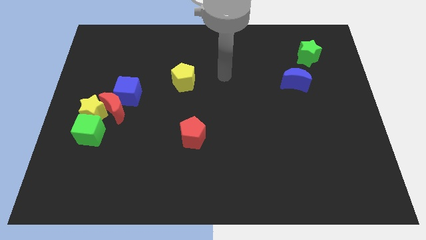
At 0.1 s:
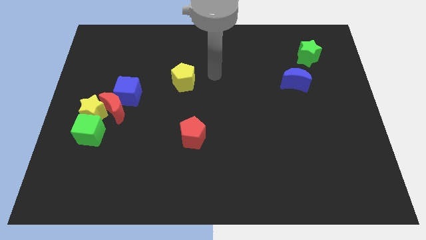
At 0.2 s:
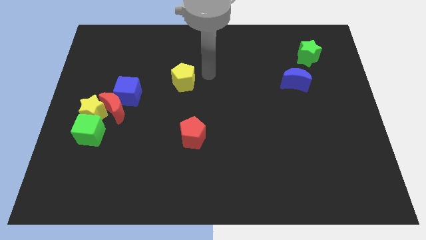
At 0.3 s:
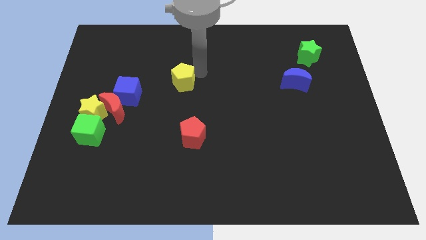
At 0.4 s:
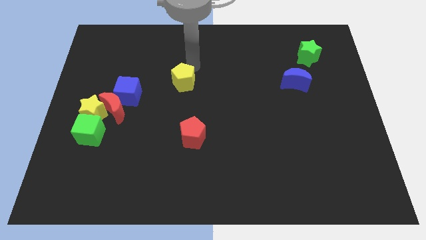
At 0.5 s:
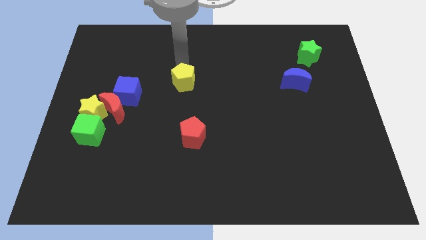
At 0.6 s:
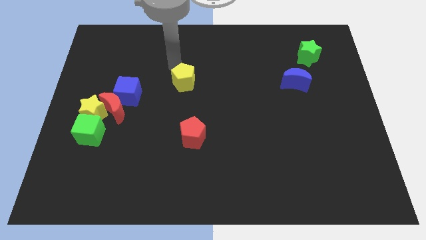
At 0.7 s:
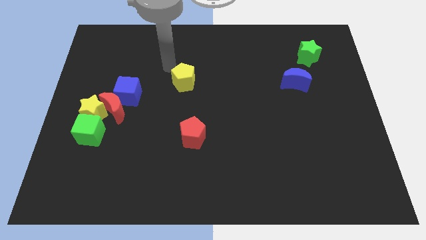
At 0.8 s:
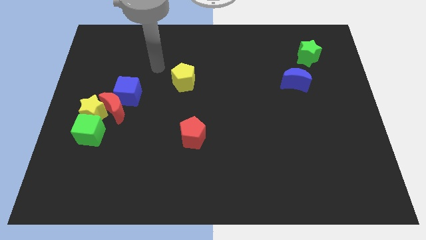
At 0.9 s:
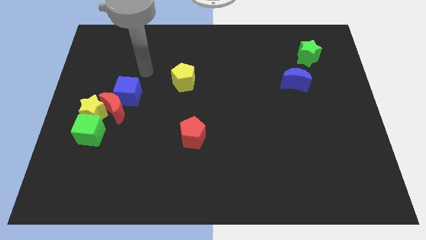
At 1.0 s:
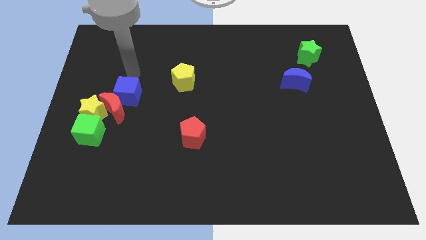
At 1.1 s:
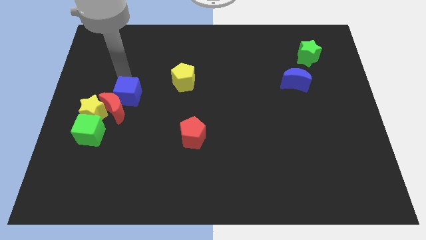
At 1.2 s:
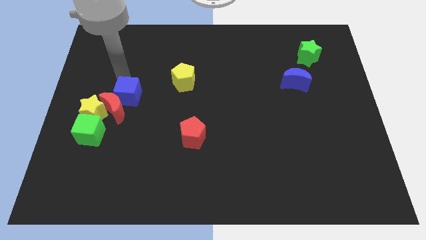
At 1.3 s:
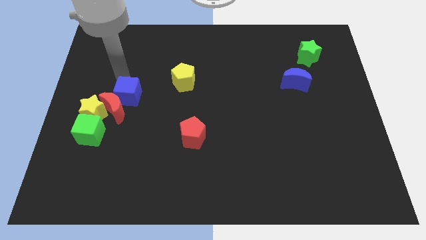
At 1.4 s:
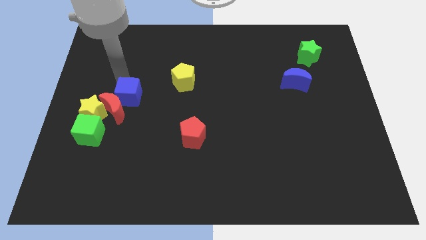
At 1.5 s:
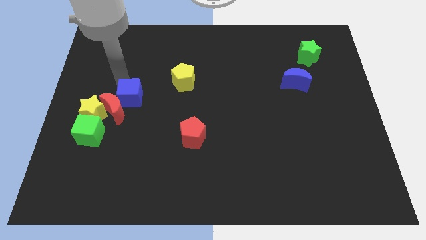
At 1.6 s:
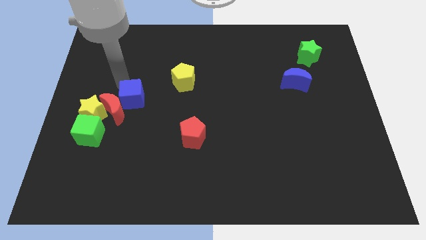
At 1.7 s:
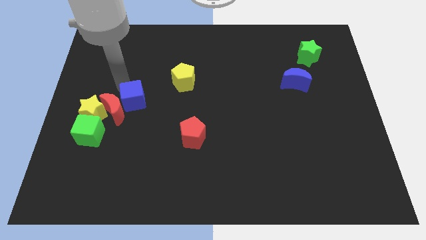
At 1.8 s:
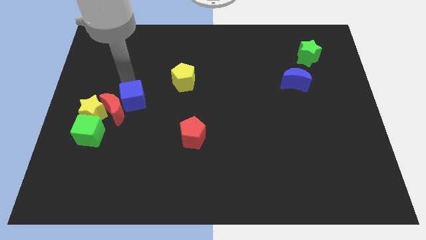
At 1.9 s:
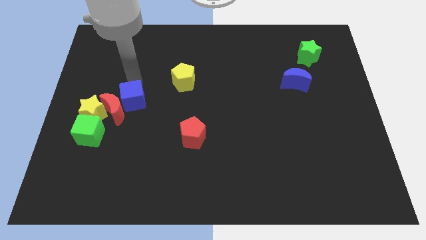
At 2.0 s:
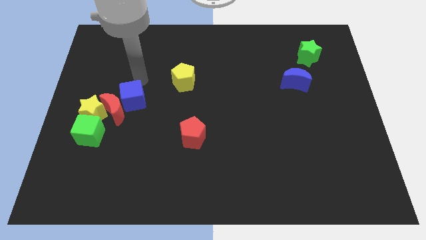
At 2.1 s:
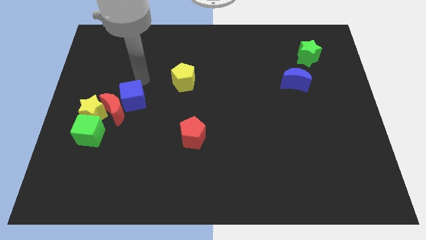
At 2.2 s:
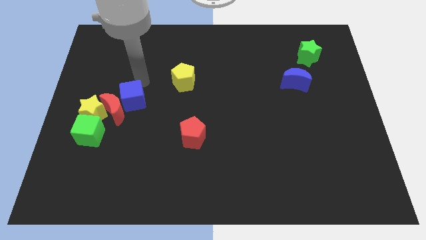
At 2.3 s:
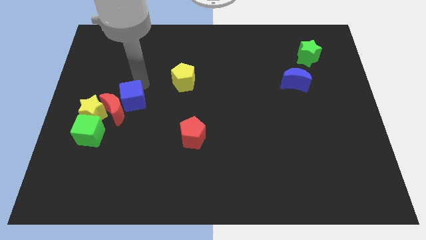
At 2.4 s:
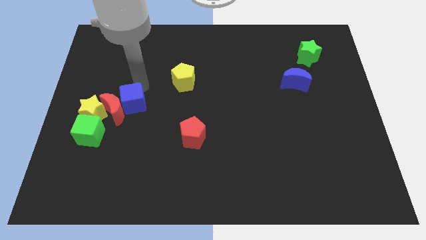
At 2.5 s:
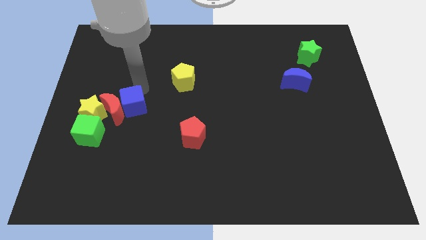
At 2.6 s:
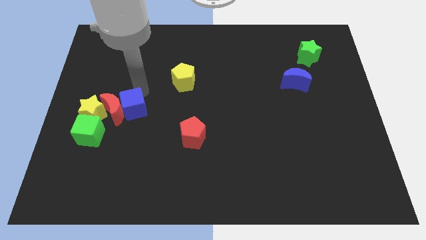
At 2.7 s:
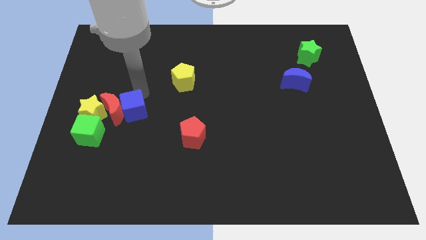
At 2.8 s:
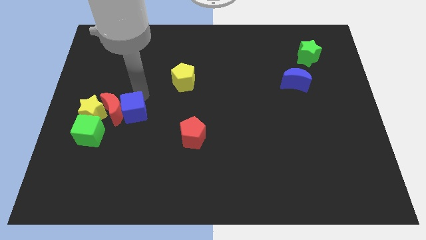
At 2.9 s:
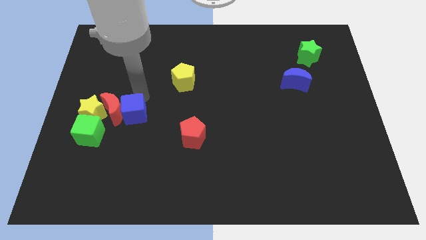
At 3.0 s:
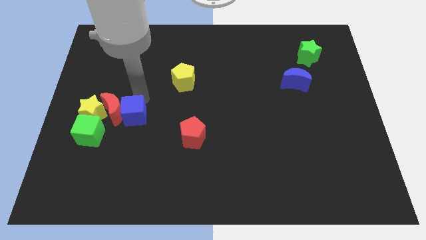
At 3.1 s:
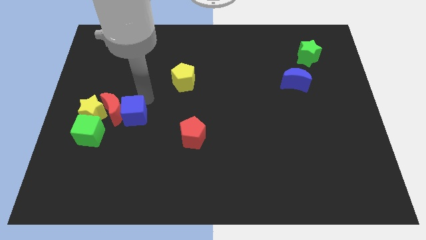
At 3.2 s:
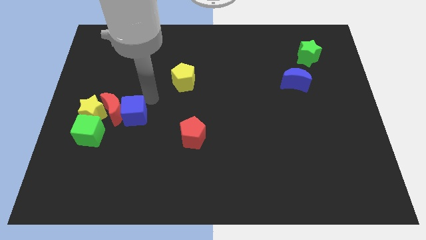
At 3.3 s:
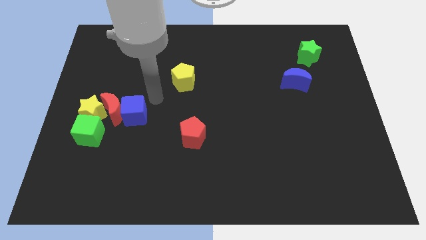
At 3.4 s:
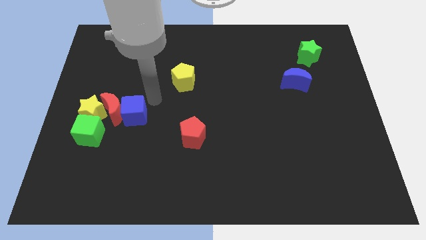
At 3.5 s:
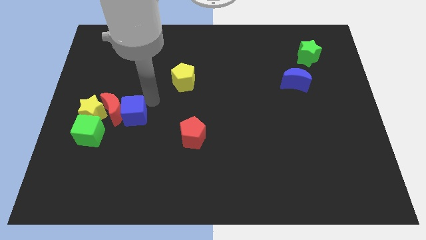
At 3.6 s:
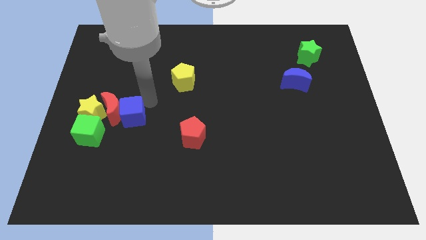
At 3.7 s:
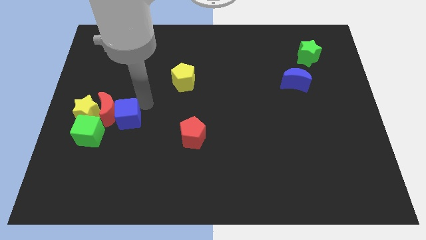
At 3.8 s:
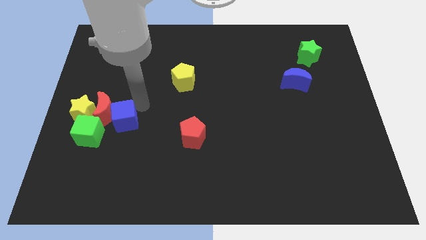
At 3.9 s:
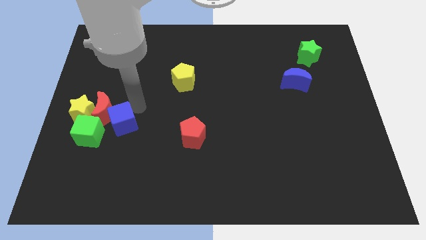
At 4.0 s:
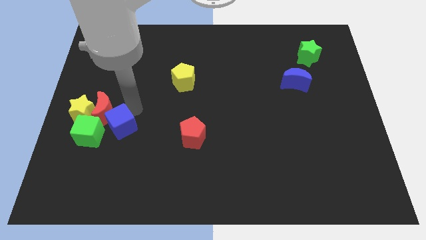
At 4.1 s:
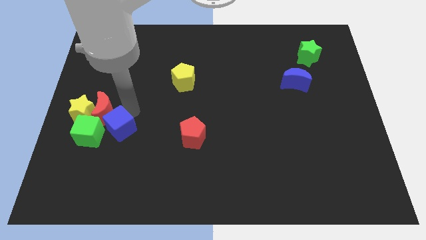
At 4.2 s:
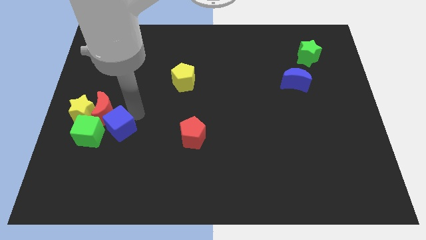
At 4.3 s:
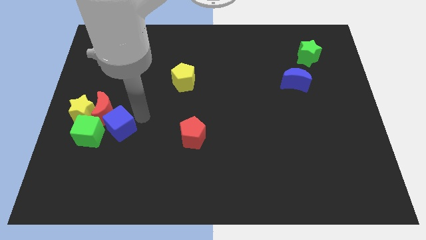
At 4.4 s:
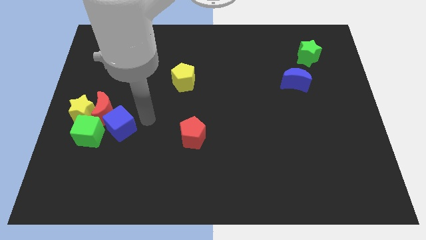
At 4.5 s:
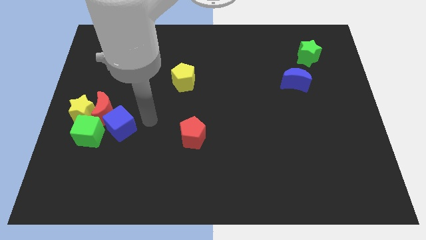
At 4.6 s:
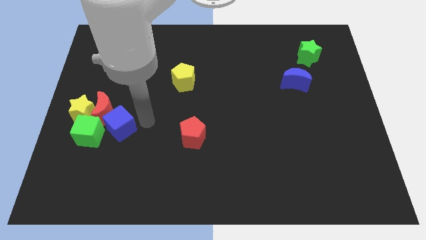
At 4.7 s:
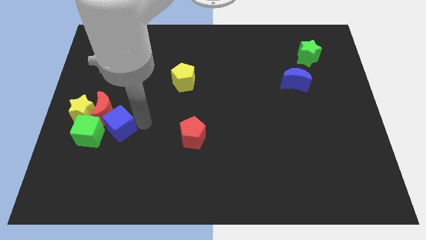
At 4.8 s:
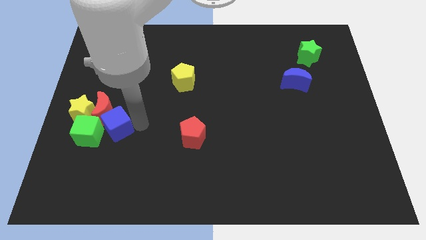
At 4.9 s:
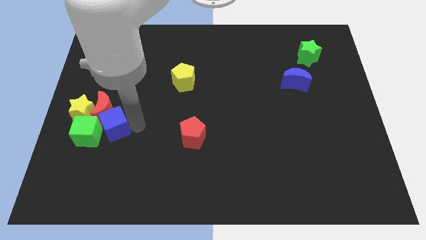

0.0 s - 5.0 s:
slide the blue cube next to the green cube

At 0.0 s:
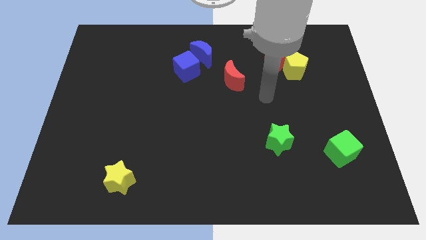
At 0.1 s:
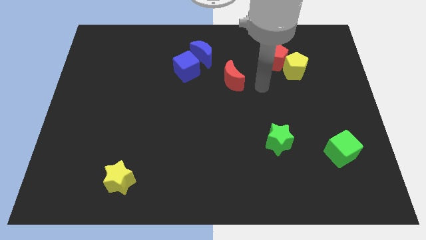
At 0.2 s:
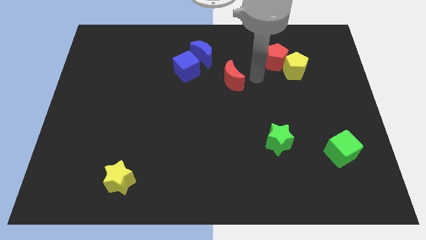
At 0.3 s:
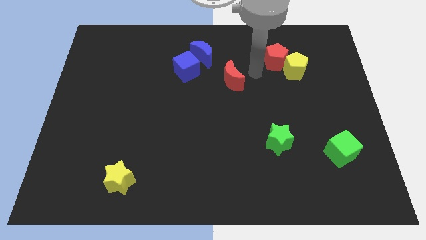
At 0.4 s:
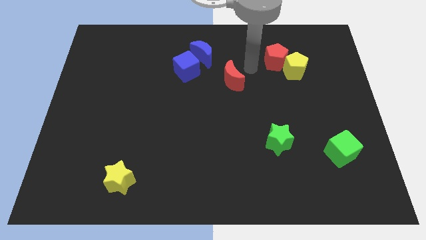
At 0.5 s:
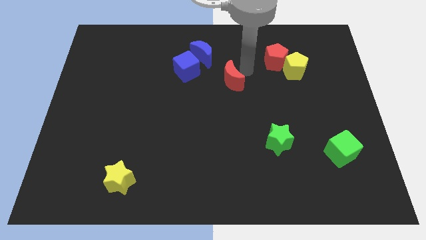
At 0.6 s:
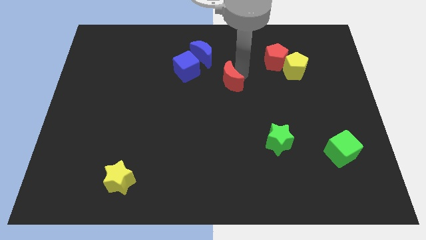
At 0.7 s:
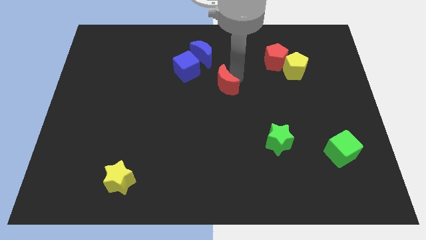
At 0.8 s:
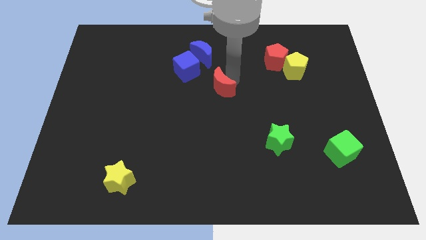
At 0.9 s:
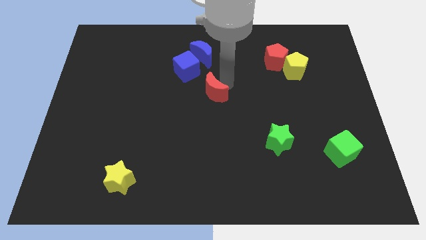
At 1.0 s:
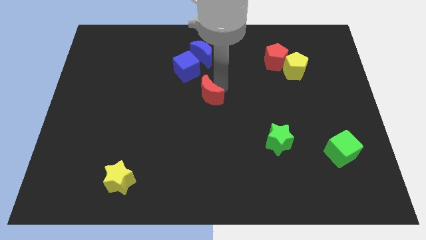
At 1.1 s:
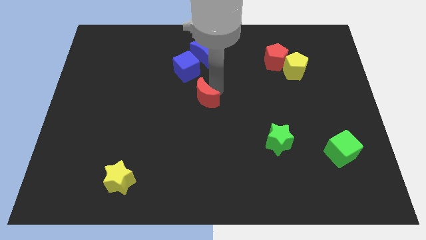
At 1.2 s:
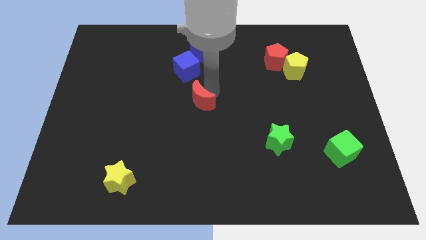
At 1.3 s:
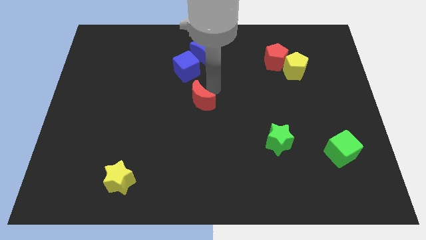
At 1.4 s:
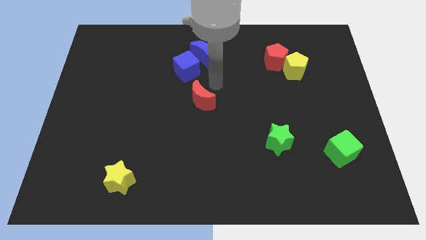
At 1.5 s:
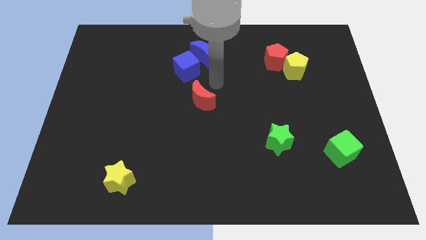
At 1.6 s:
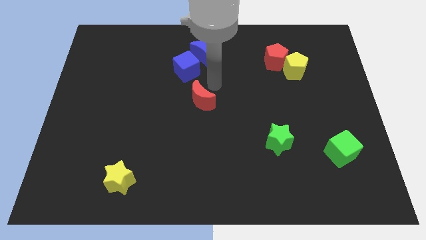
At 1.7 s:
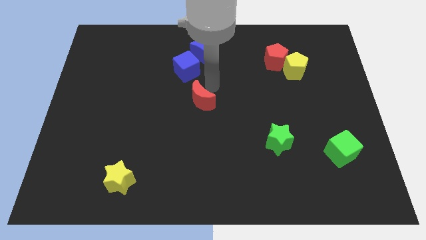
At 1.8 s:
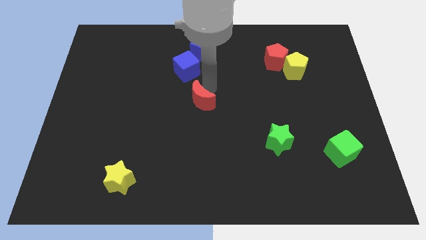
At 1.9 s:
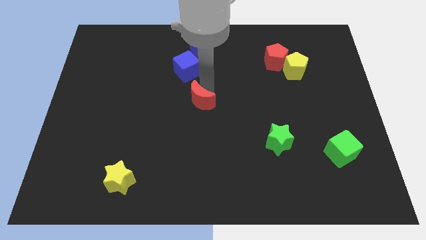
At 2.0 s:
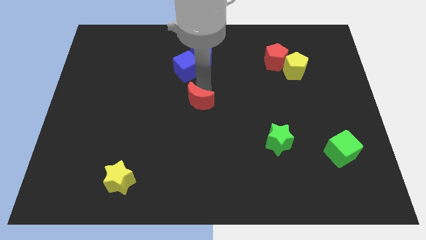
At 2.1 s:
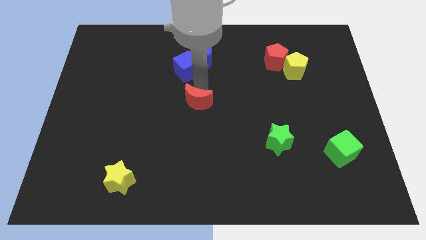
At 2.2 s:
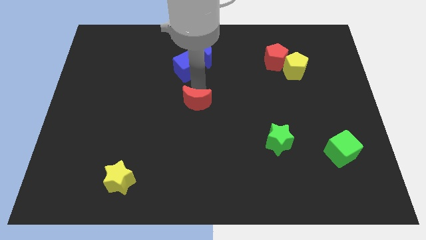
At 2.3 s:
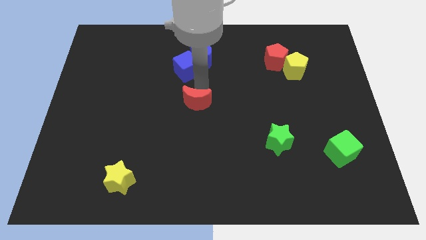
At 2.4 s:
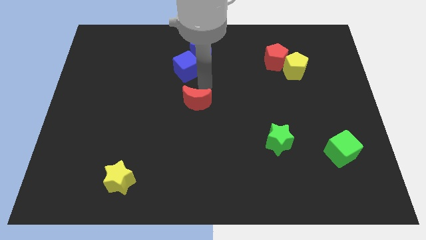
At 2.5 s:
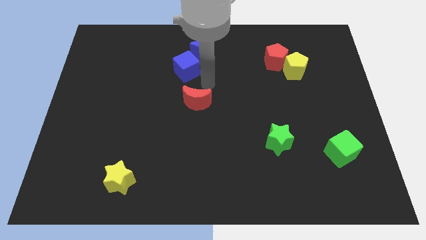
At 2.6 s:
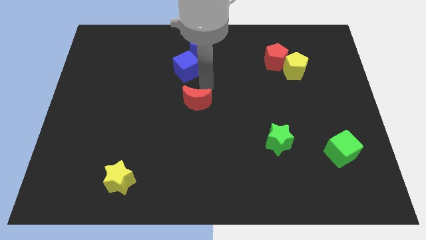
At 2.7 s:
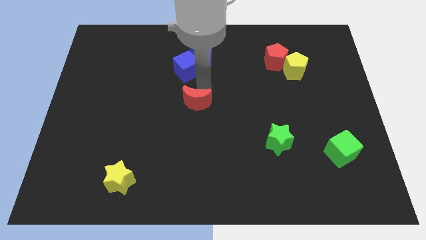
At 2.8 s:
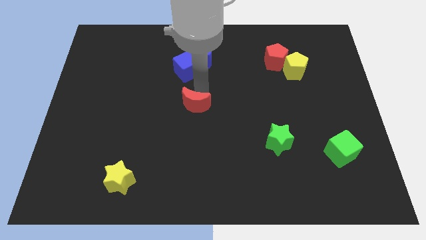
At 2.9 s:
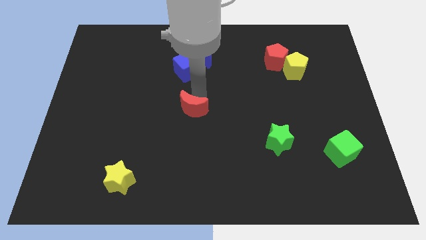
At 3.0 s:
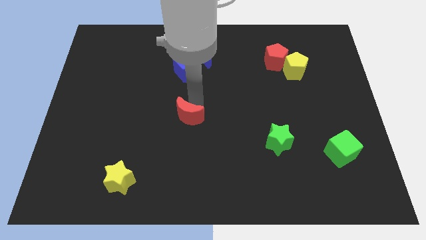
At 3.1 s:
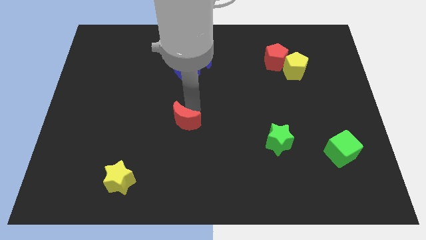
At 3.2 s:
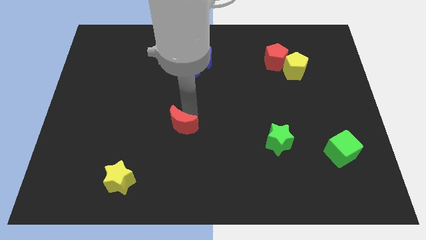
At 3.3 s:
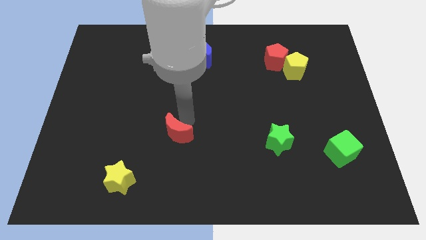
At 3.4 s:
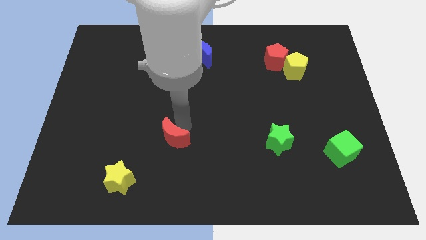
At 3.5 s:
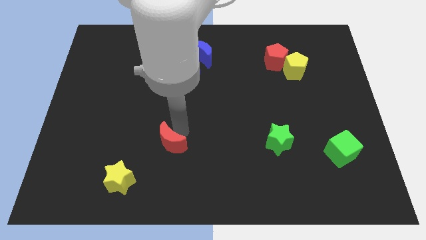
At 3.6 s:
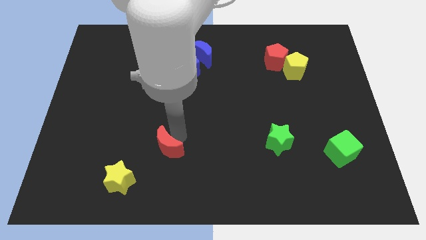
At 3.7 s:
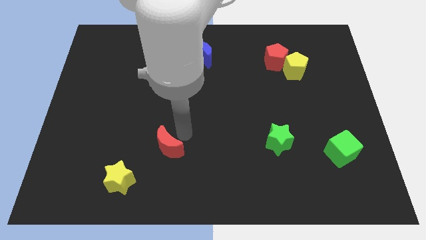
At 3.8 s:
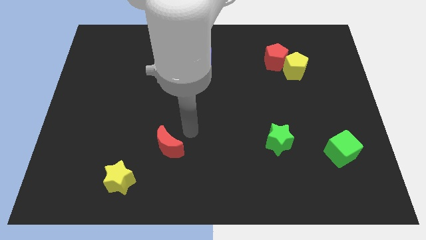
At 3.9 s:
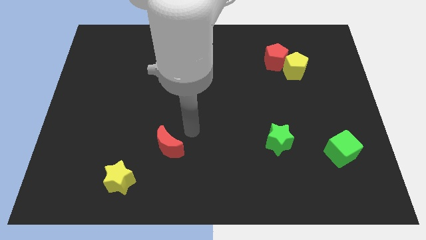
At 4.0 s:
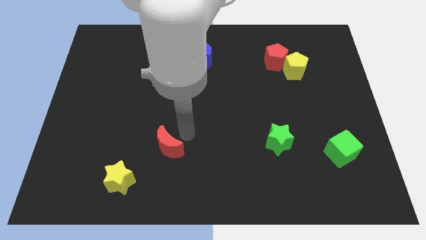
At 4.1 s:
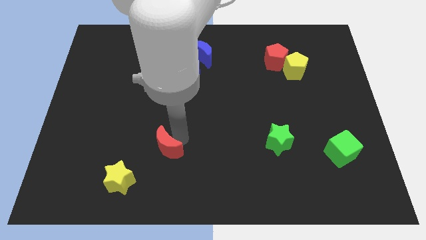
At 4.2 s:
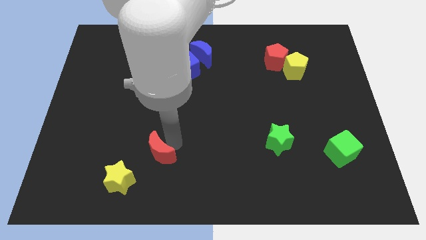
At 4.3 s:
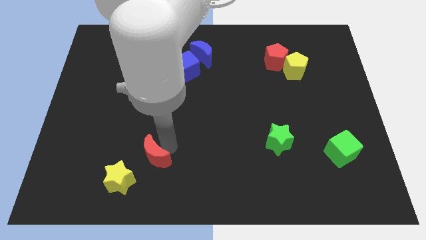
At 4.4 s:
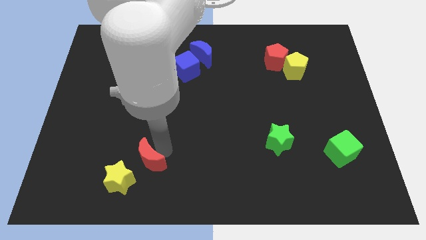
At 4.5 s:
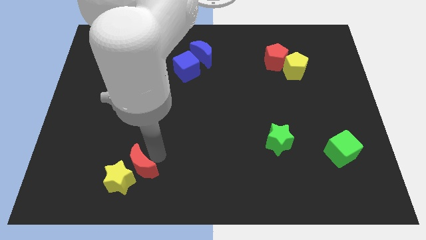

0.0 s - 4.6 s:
move the red moon to the yellow star
